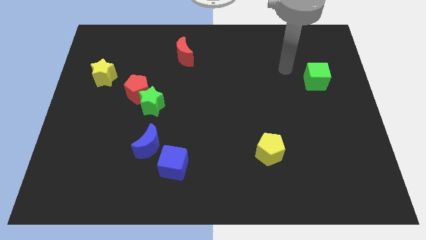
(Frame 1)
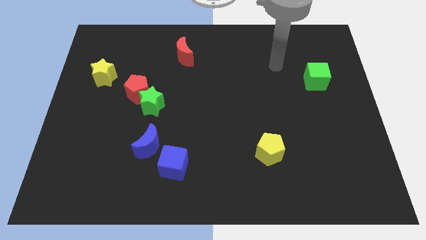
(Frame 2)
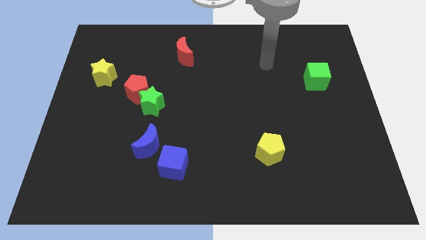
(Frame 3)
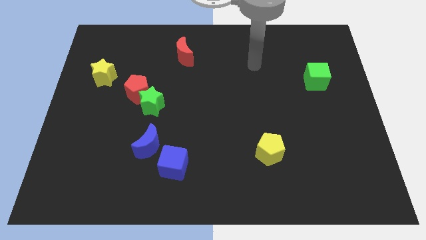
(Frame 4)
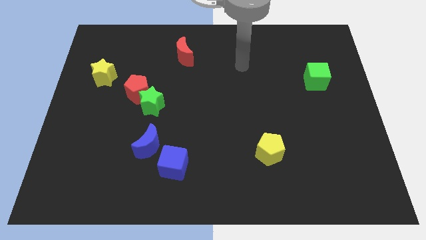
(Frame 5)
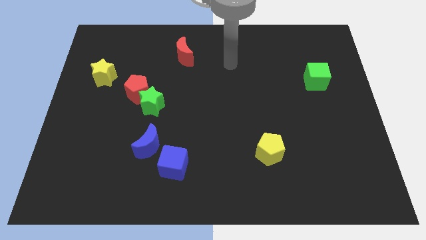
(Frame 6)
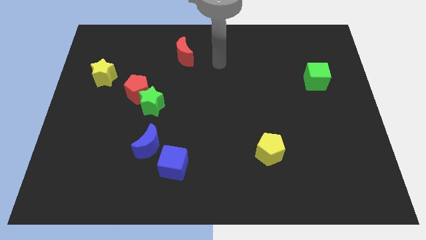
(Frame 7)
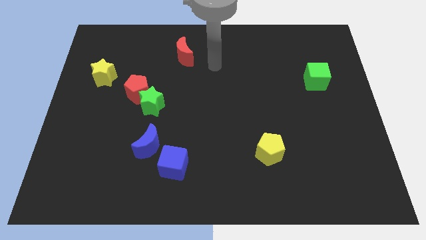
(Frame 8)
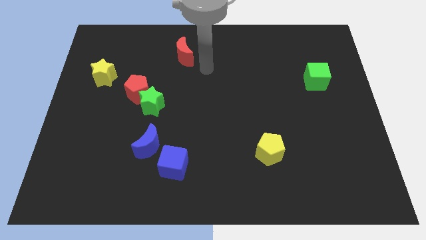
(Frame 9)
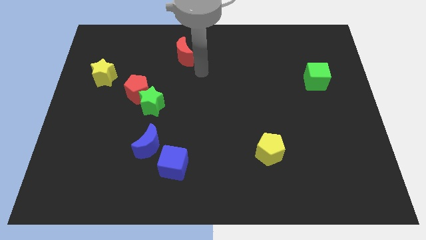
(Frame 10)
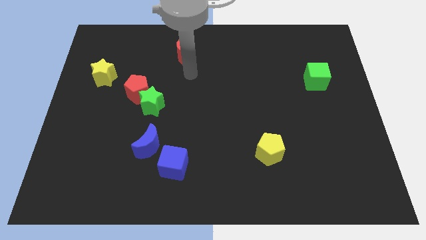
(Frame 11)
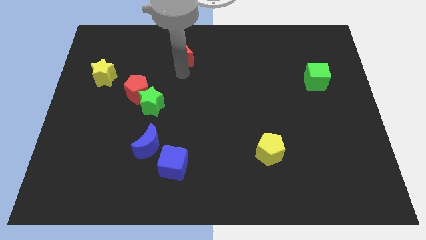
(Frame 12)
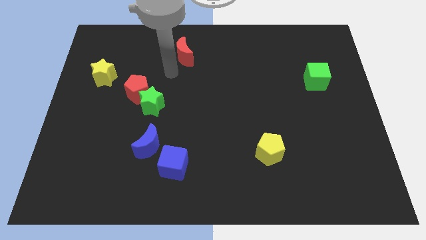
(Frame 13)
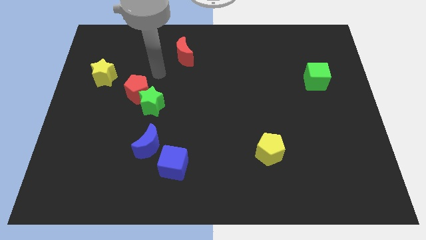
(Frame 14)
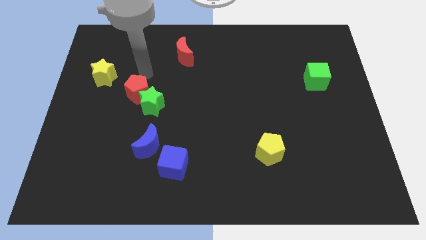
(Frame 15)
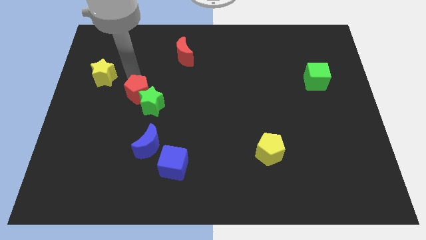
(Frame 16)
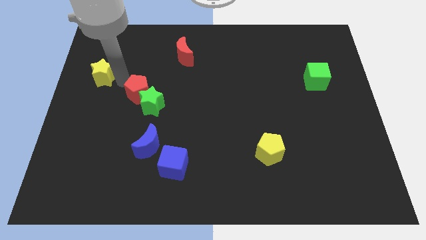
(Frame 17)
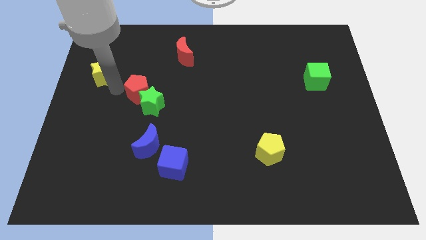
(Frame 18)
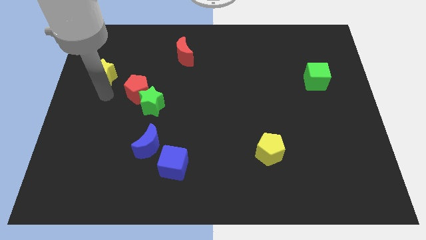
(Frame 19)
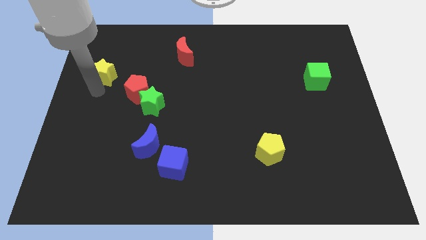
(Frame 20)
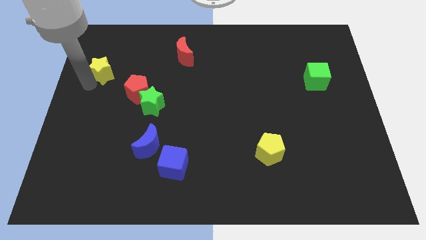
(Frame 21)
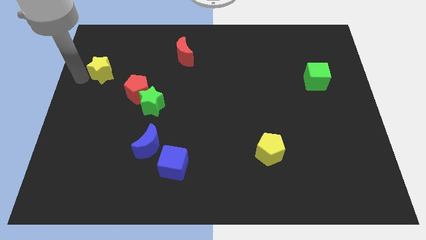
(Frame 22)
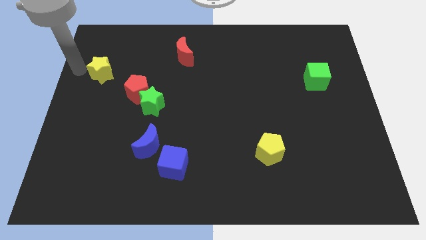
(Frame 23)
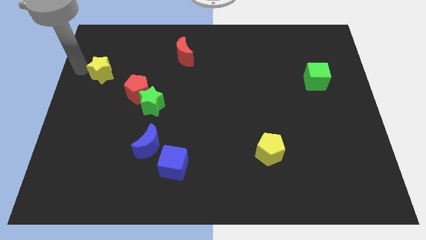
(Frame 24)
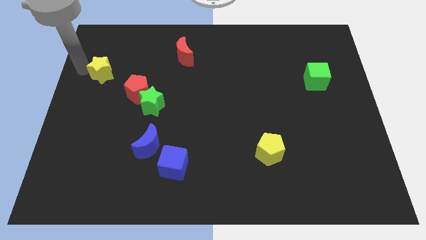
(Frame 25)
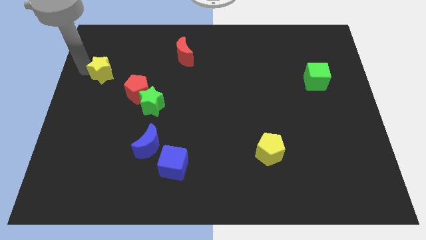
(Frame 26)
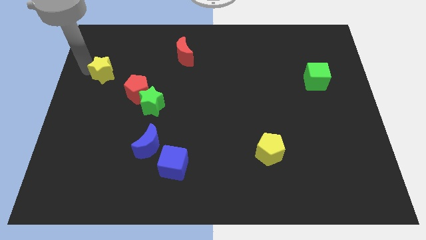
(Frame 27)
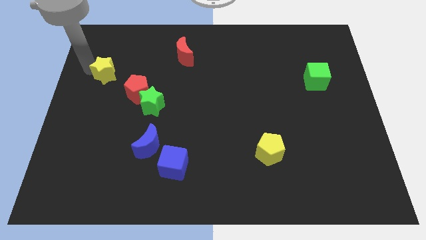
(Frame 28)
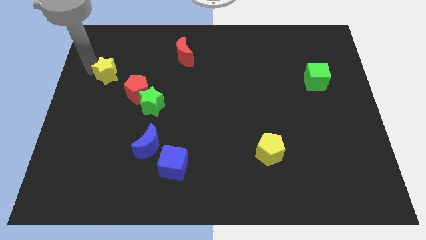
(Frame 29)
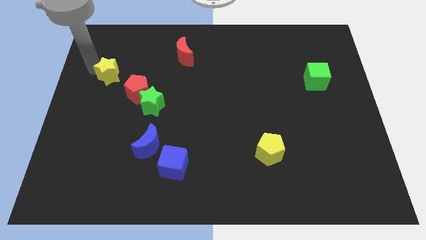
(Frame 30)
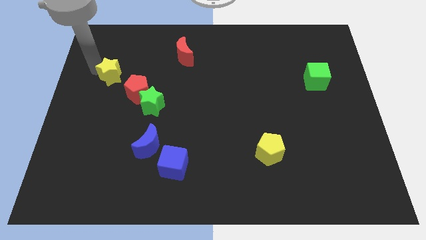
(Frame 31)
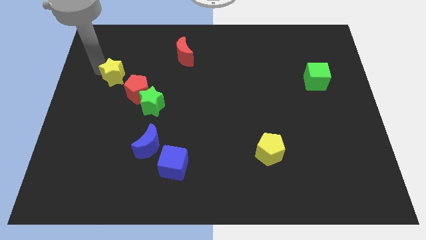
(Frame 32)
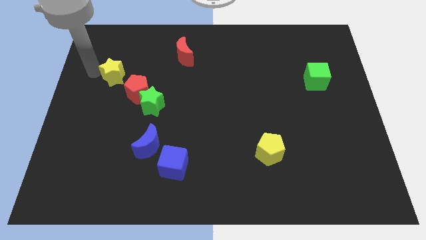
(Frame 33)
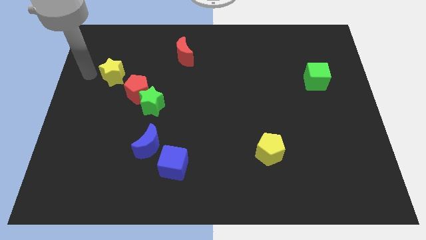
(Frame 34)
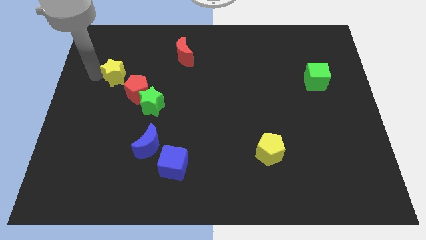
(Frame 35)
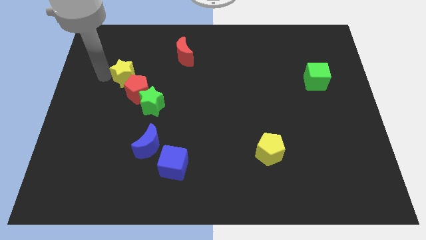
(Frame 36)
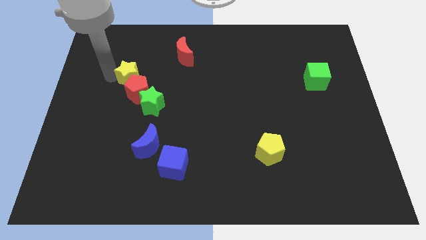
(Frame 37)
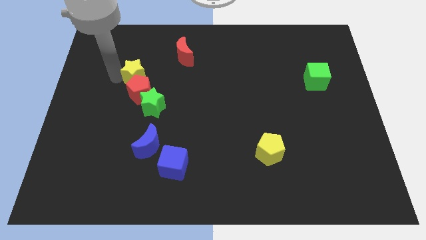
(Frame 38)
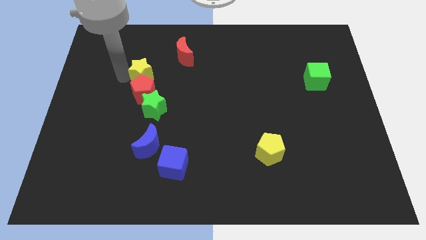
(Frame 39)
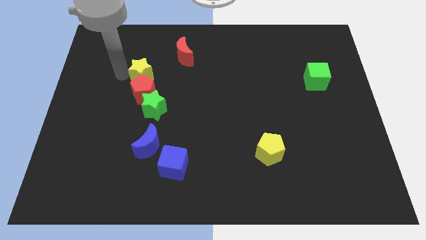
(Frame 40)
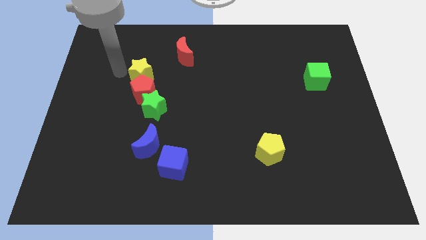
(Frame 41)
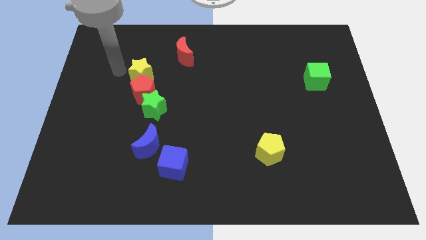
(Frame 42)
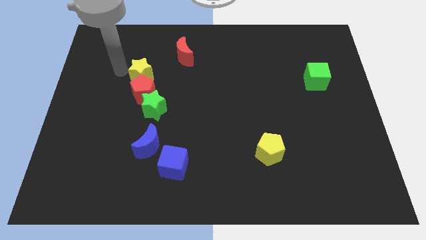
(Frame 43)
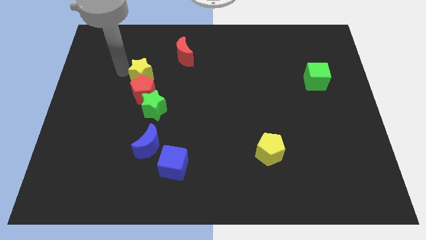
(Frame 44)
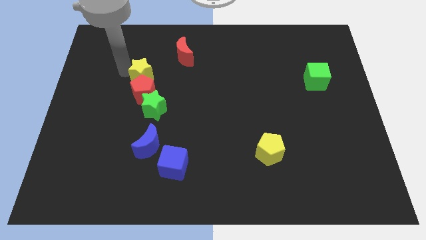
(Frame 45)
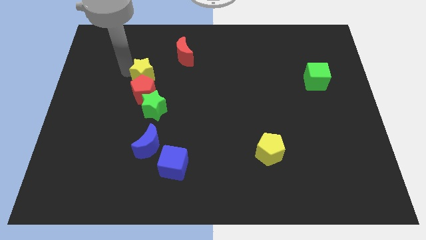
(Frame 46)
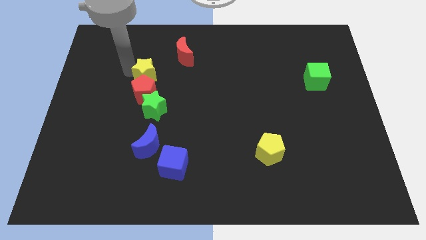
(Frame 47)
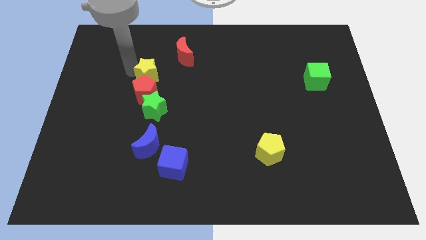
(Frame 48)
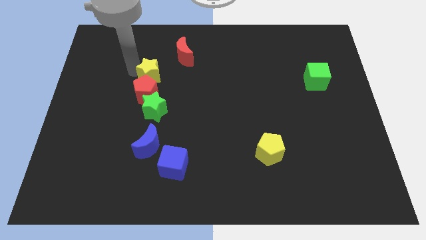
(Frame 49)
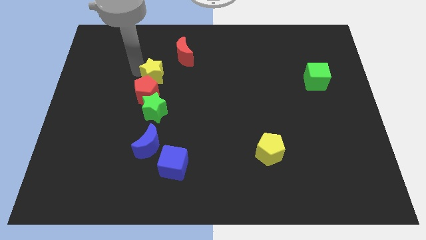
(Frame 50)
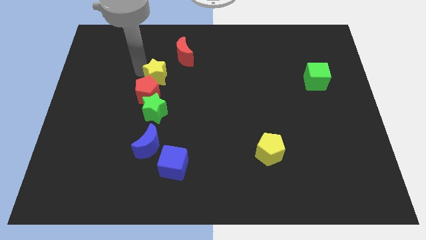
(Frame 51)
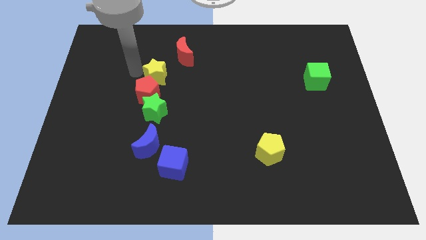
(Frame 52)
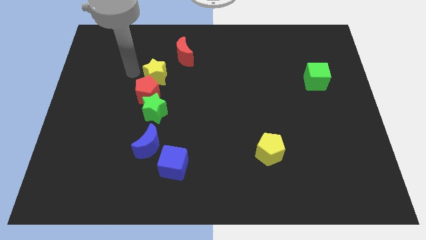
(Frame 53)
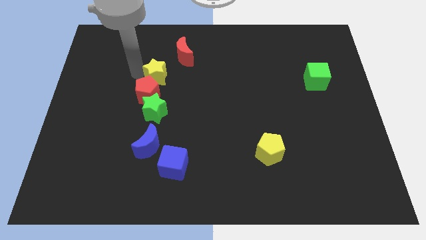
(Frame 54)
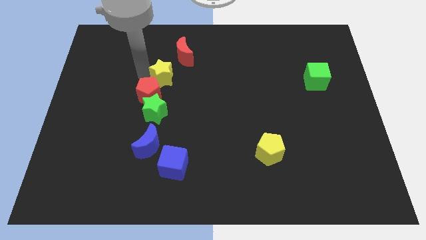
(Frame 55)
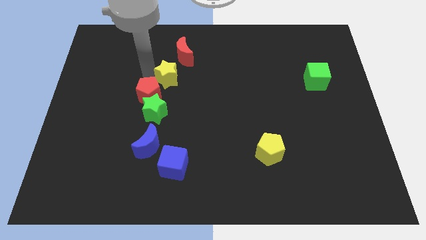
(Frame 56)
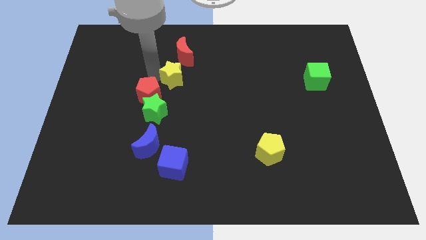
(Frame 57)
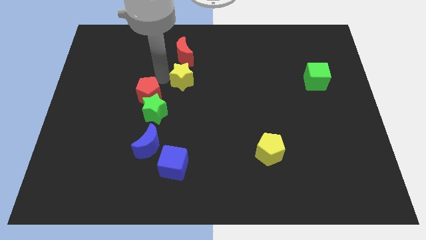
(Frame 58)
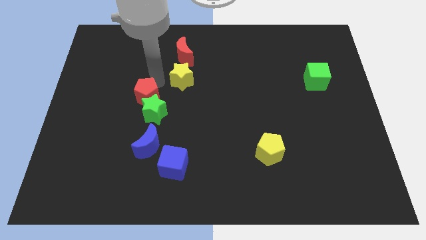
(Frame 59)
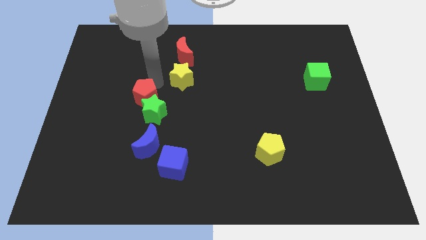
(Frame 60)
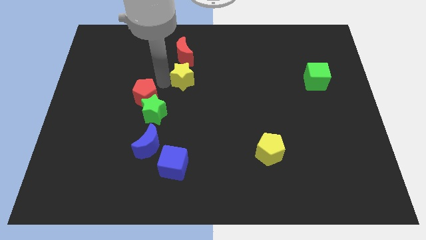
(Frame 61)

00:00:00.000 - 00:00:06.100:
move the yellow star to the right

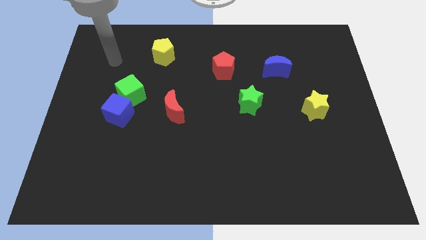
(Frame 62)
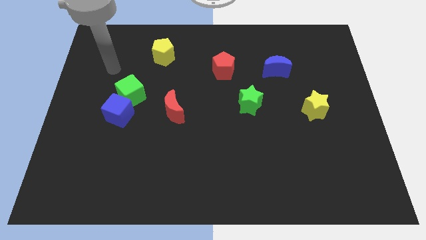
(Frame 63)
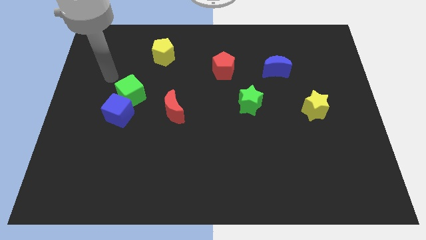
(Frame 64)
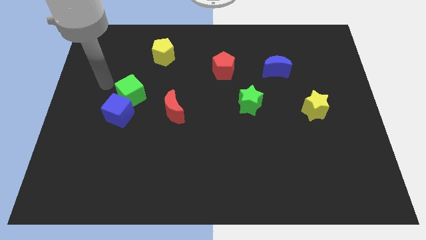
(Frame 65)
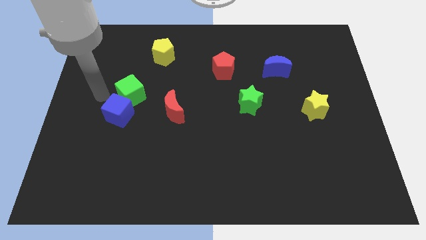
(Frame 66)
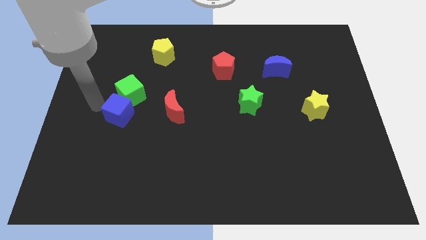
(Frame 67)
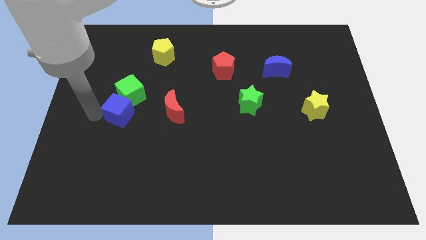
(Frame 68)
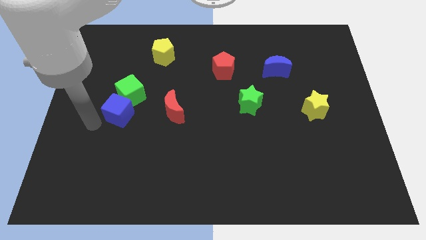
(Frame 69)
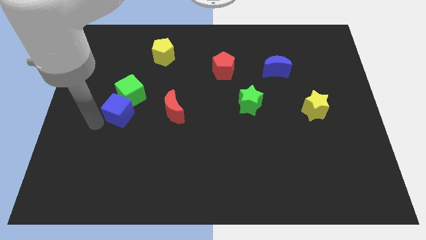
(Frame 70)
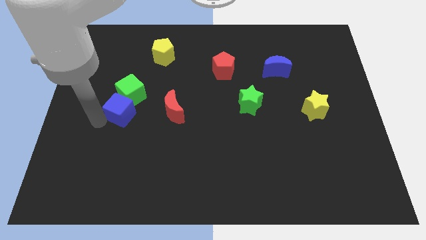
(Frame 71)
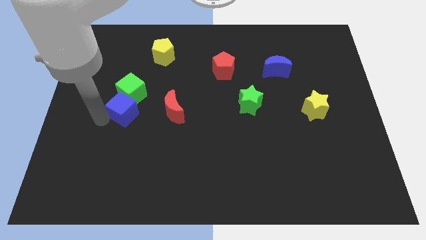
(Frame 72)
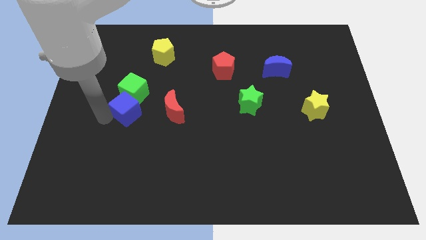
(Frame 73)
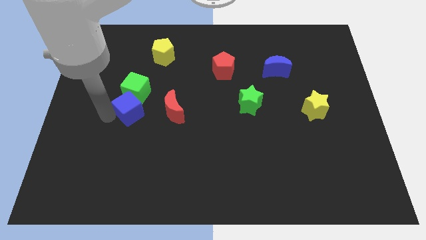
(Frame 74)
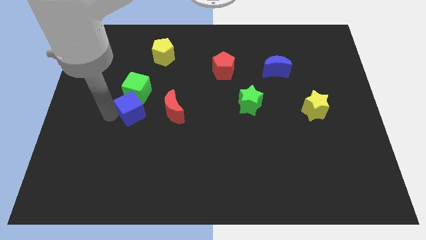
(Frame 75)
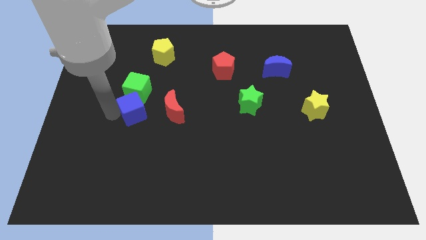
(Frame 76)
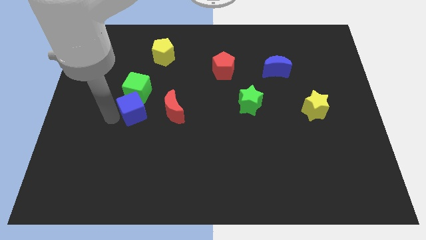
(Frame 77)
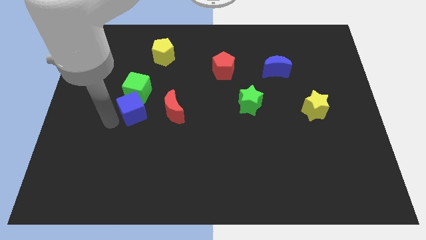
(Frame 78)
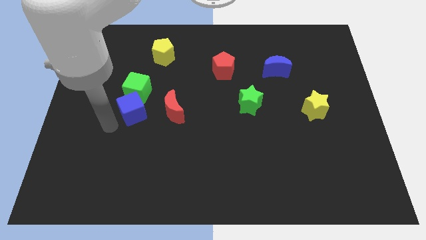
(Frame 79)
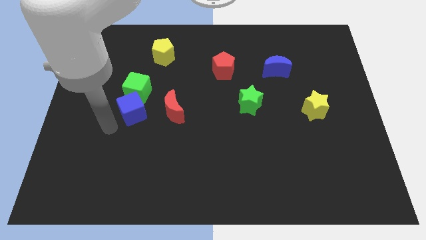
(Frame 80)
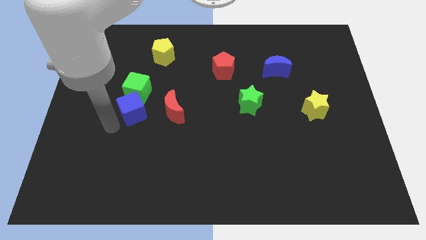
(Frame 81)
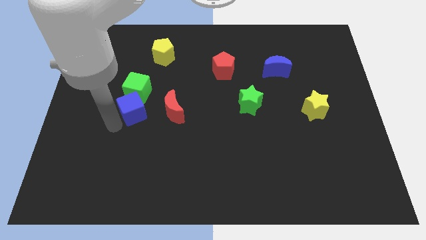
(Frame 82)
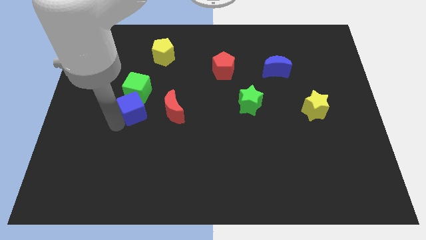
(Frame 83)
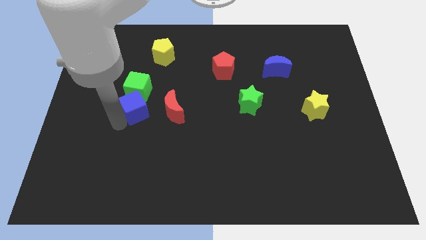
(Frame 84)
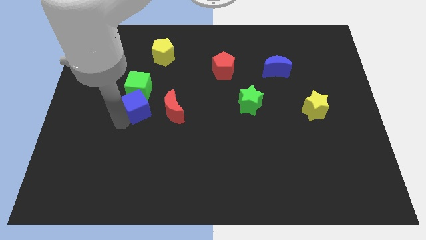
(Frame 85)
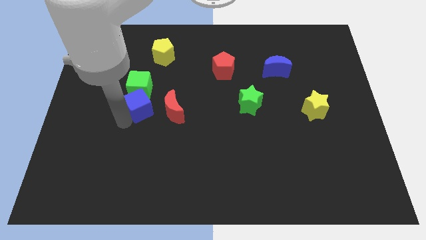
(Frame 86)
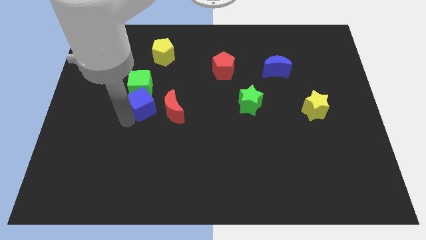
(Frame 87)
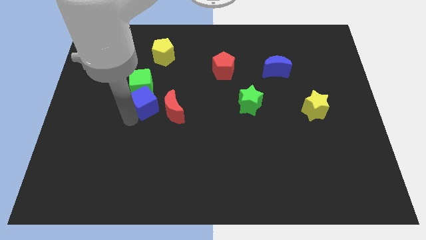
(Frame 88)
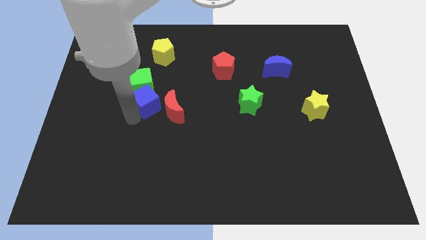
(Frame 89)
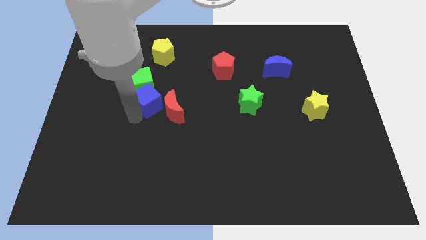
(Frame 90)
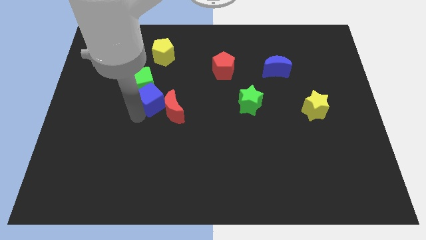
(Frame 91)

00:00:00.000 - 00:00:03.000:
slightly push the blue cube diagonally up and to the right
